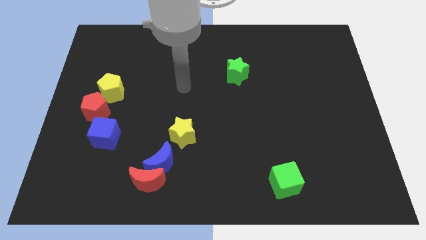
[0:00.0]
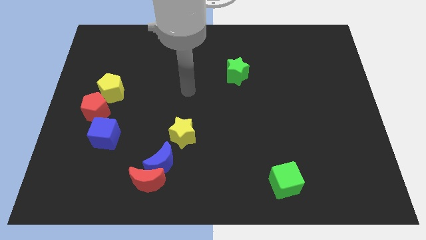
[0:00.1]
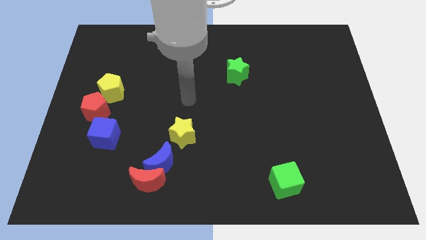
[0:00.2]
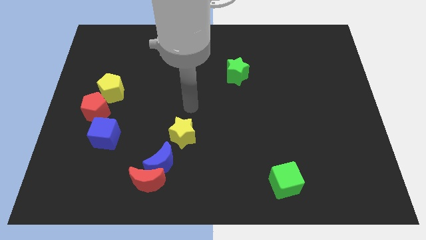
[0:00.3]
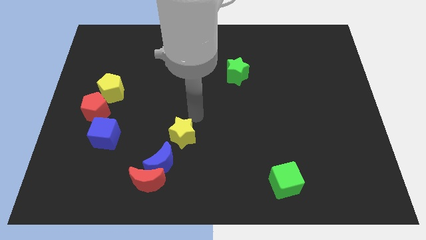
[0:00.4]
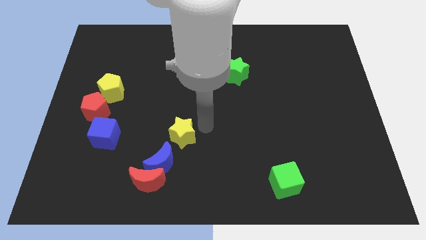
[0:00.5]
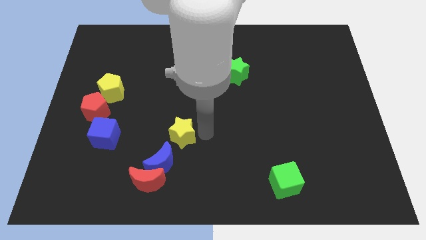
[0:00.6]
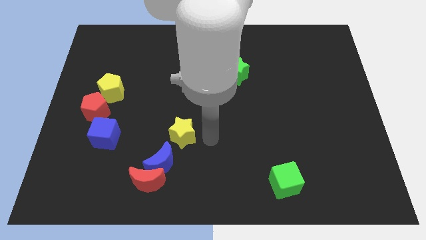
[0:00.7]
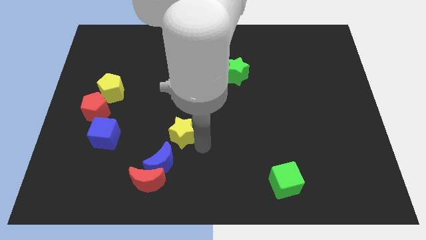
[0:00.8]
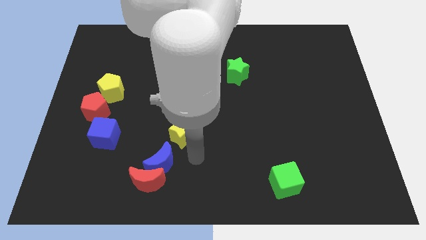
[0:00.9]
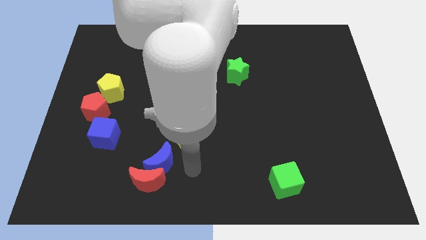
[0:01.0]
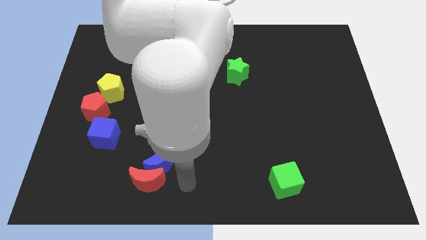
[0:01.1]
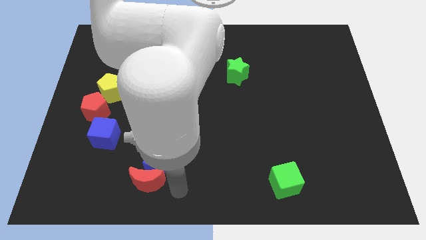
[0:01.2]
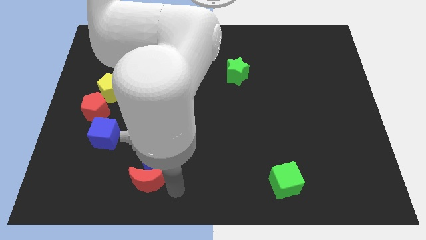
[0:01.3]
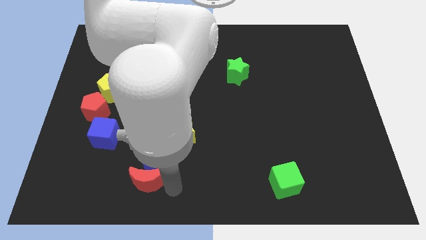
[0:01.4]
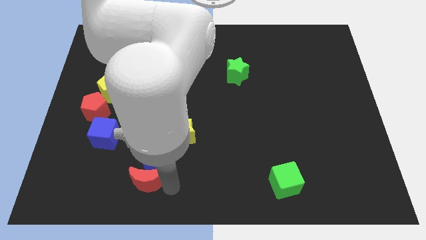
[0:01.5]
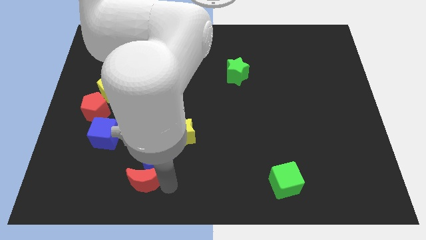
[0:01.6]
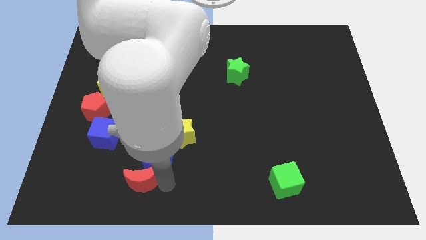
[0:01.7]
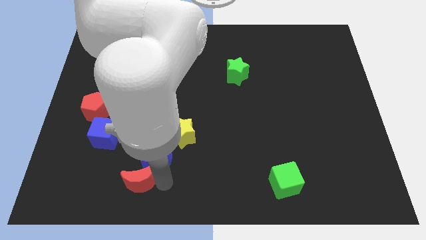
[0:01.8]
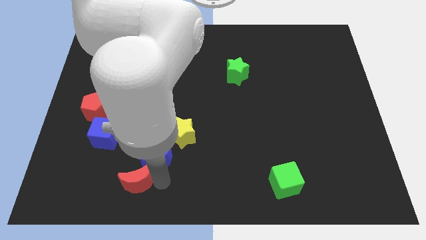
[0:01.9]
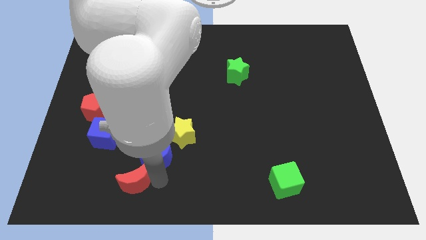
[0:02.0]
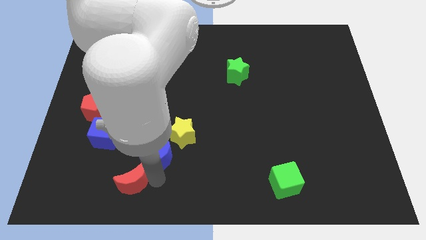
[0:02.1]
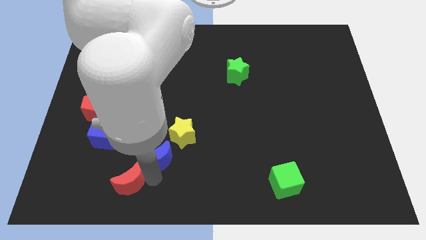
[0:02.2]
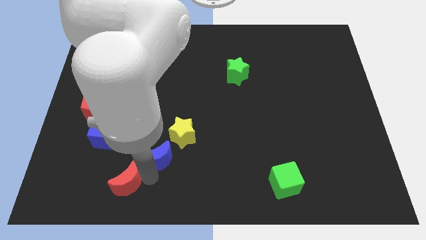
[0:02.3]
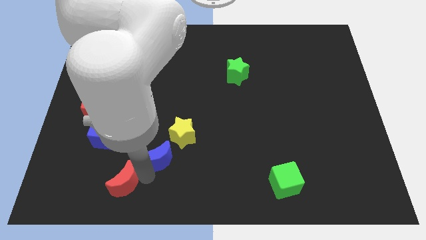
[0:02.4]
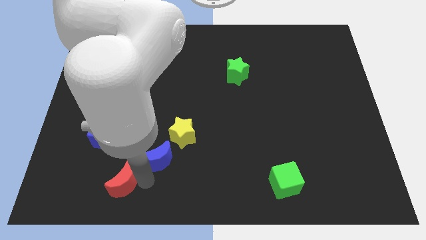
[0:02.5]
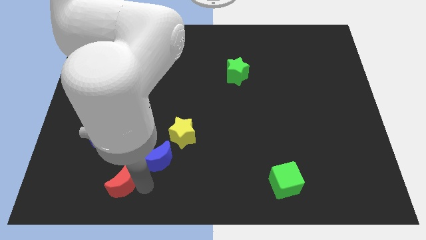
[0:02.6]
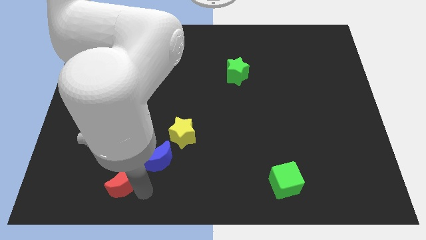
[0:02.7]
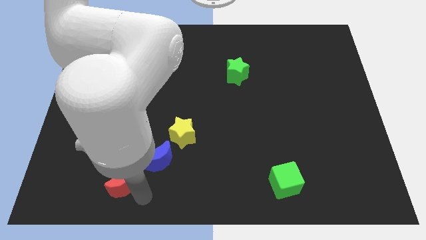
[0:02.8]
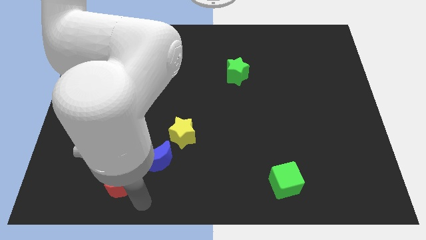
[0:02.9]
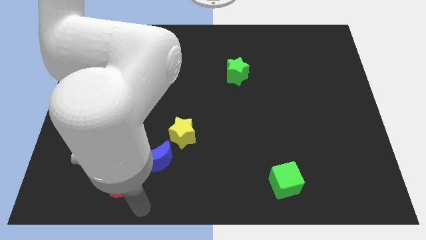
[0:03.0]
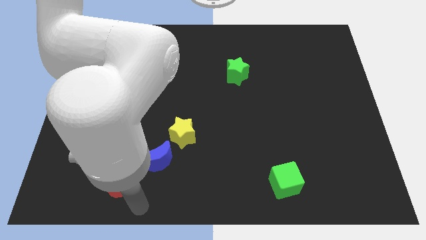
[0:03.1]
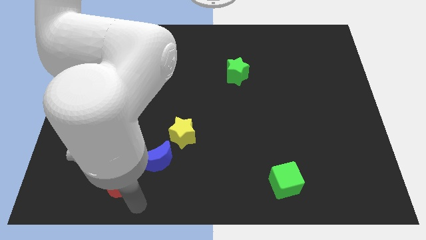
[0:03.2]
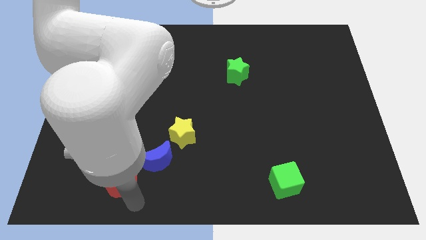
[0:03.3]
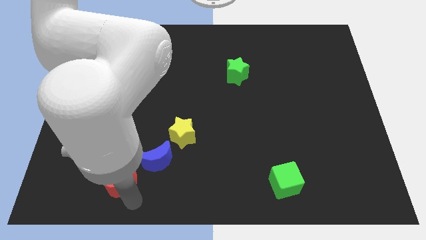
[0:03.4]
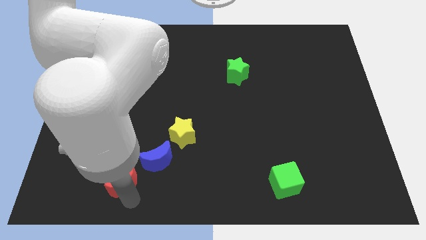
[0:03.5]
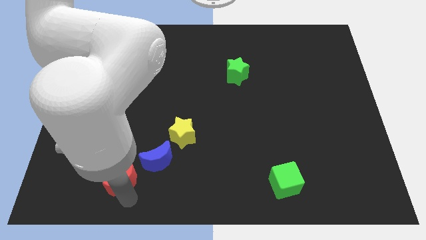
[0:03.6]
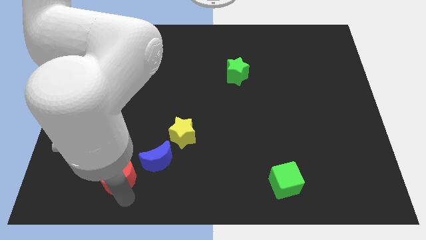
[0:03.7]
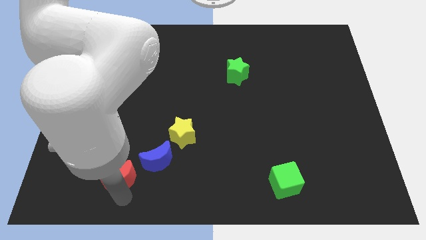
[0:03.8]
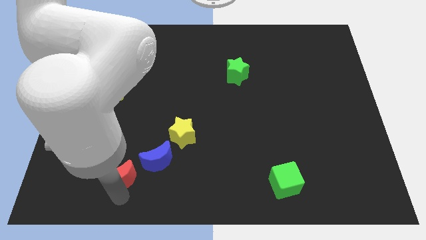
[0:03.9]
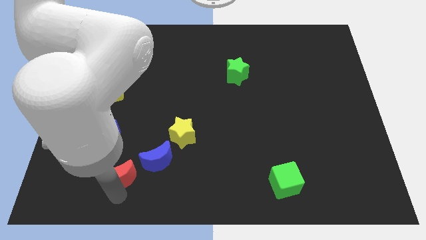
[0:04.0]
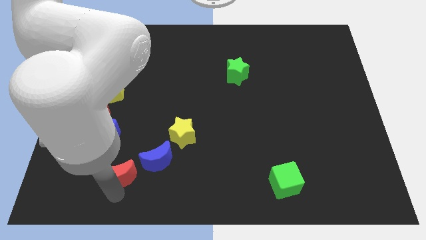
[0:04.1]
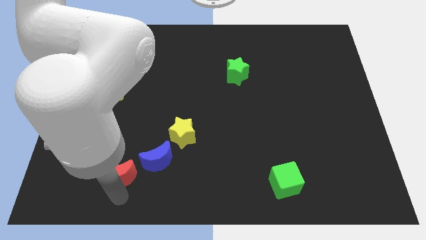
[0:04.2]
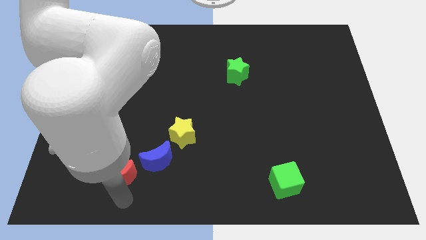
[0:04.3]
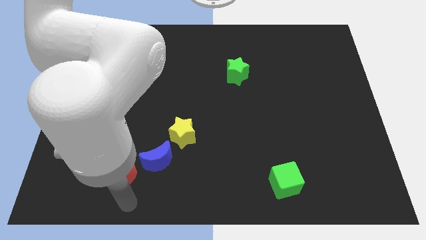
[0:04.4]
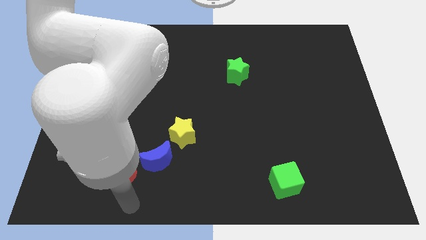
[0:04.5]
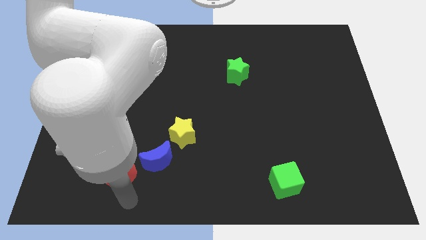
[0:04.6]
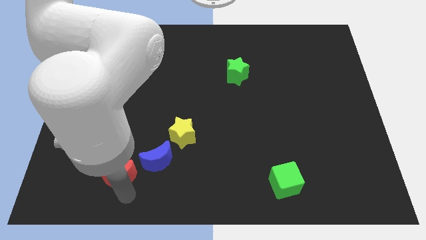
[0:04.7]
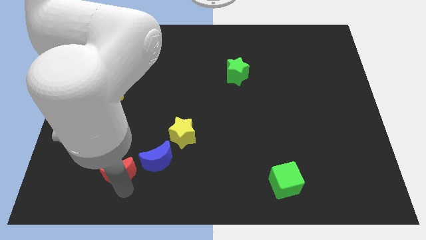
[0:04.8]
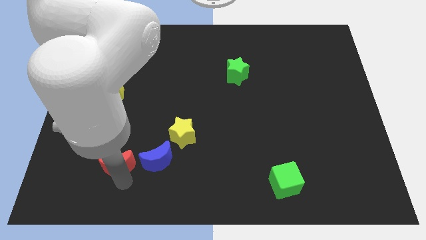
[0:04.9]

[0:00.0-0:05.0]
slide the red moon diagonally up and to the left slightly

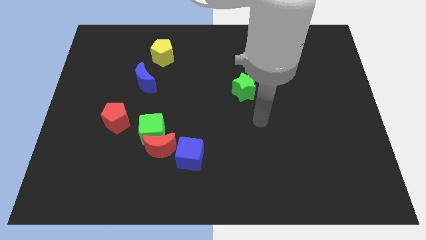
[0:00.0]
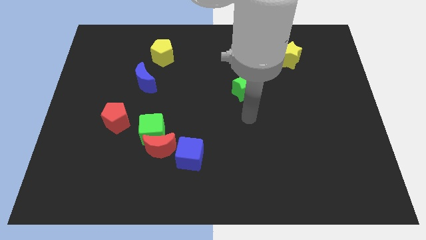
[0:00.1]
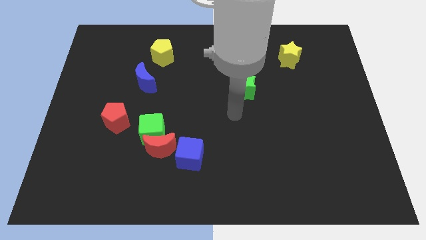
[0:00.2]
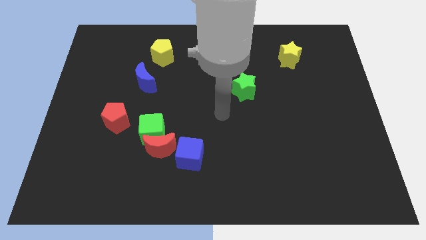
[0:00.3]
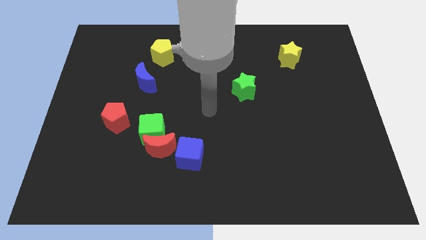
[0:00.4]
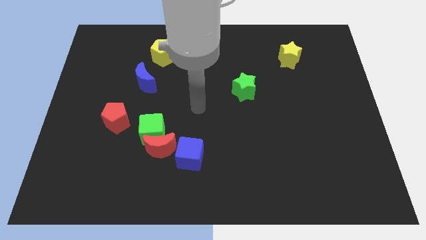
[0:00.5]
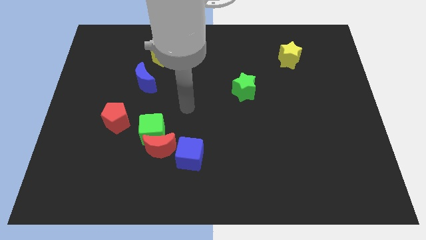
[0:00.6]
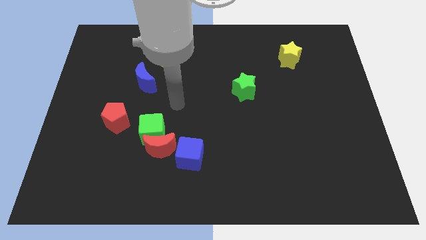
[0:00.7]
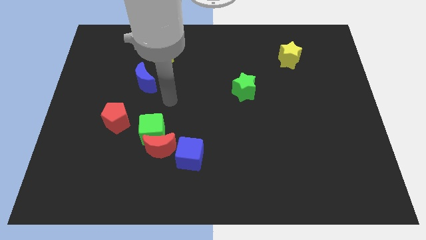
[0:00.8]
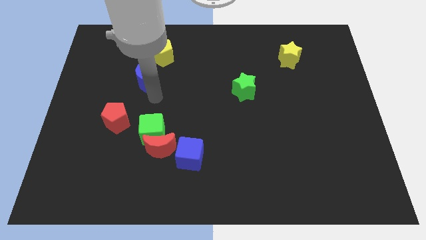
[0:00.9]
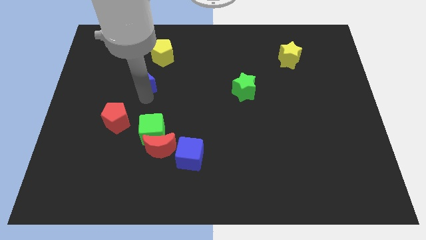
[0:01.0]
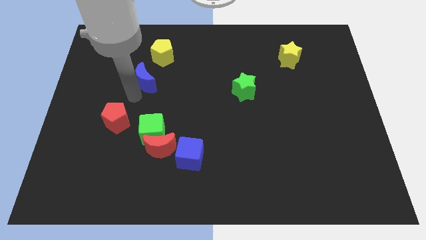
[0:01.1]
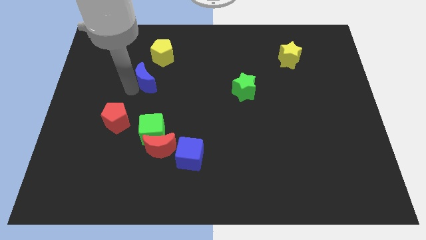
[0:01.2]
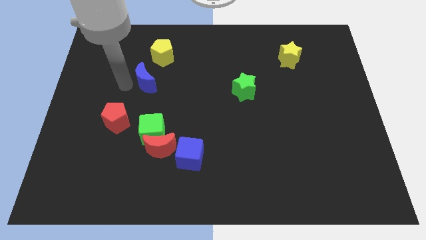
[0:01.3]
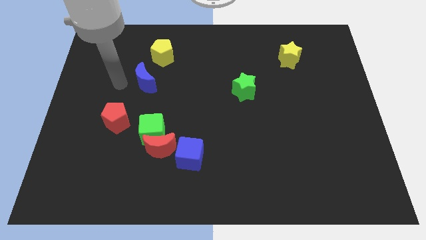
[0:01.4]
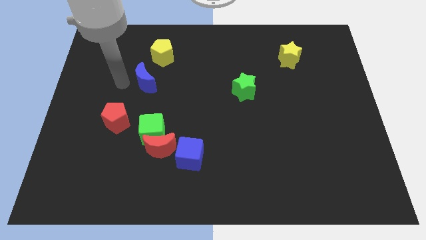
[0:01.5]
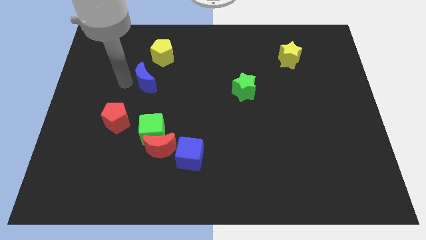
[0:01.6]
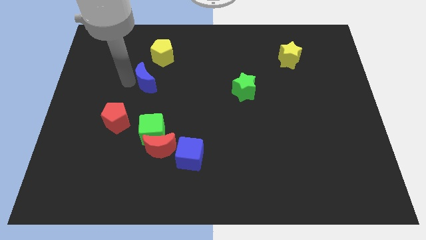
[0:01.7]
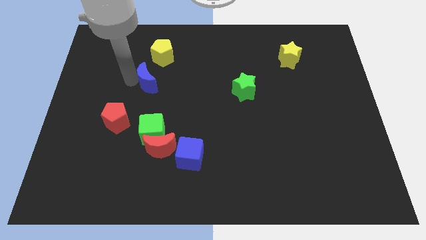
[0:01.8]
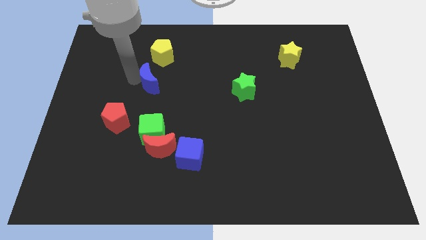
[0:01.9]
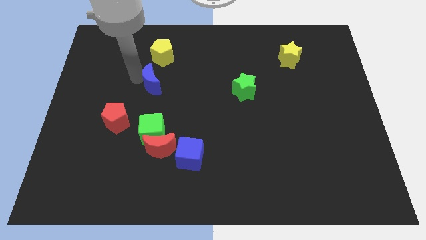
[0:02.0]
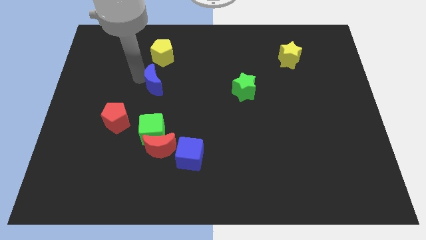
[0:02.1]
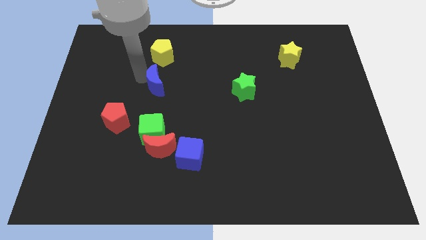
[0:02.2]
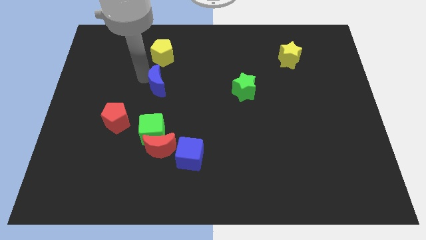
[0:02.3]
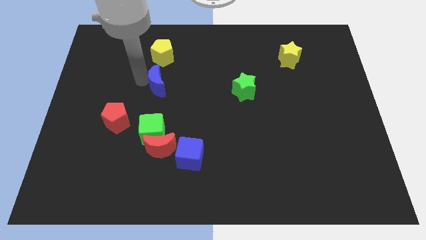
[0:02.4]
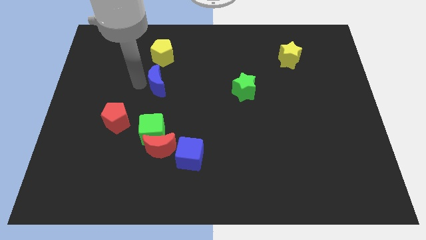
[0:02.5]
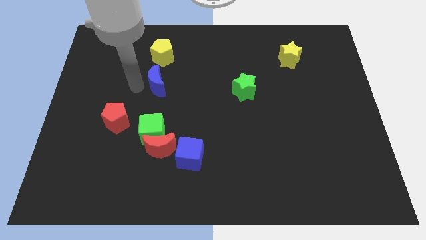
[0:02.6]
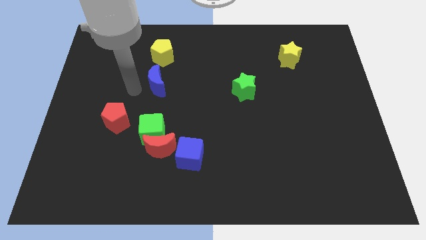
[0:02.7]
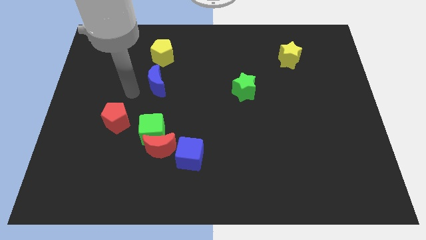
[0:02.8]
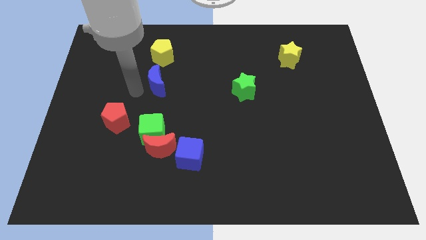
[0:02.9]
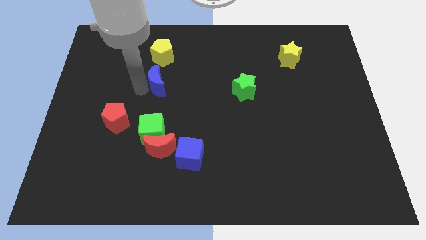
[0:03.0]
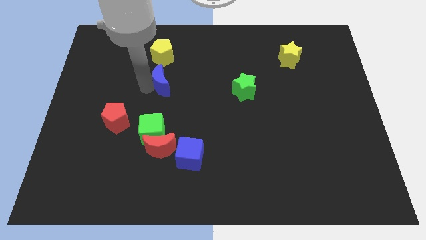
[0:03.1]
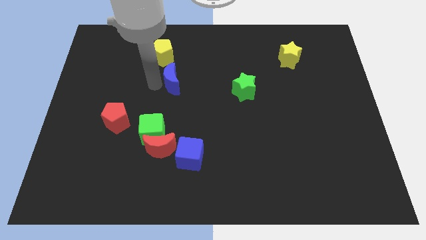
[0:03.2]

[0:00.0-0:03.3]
slightly slide the blue moon right
